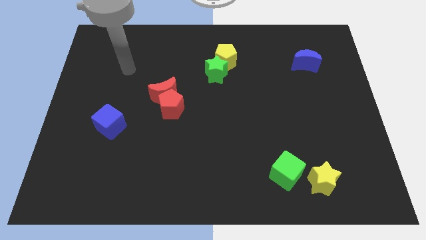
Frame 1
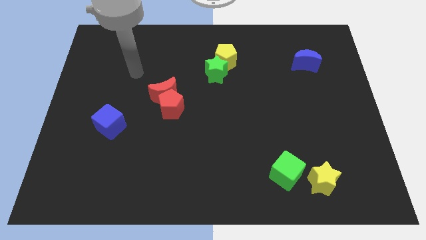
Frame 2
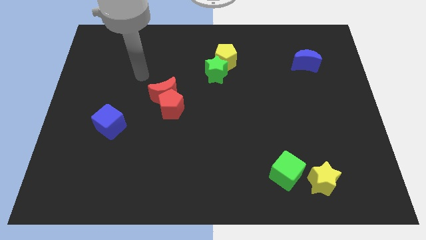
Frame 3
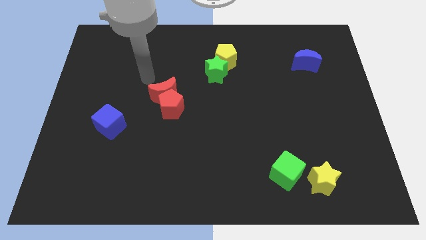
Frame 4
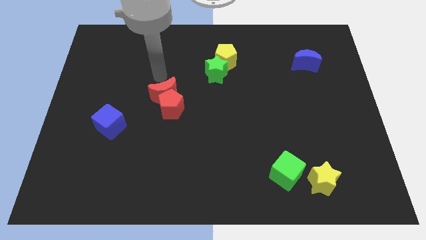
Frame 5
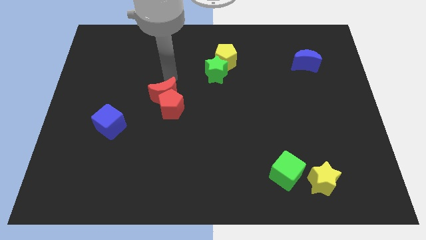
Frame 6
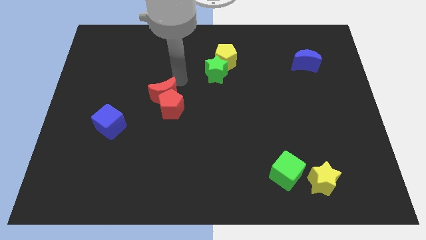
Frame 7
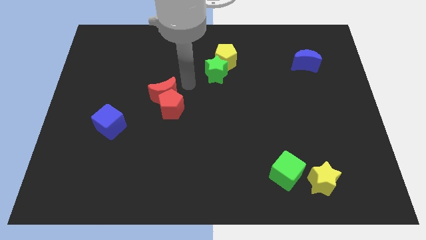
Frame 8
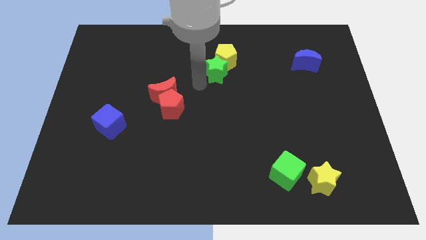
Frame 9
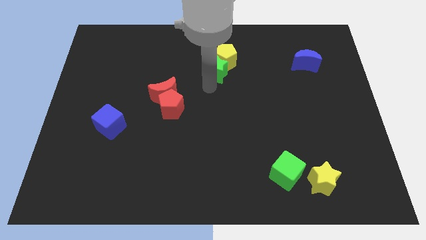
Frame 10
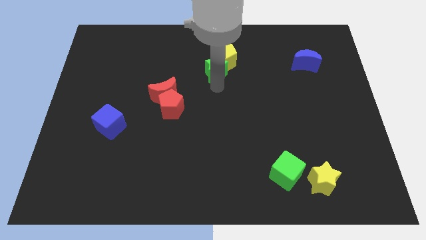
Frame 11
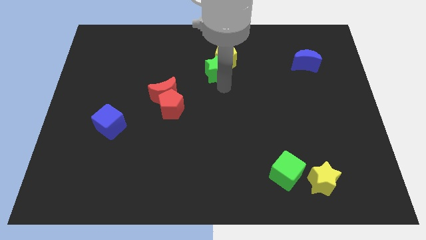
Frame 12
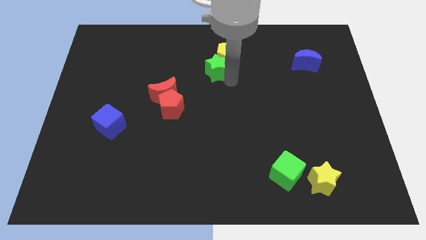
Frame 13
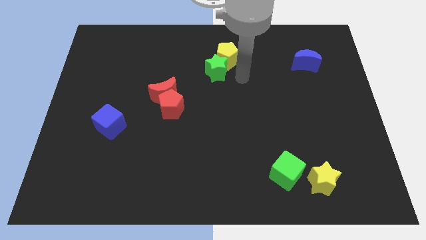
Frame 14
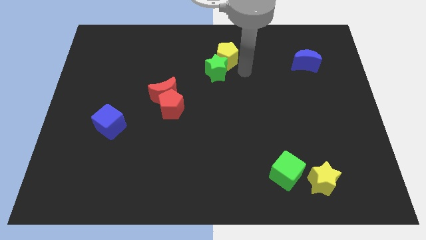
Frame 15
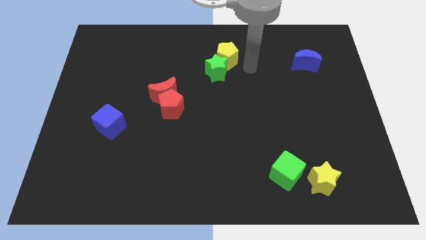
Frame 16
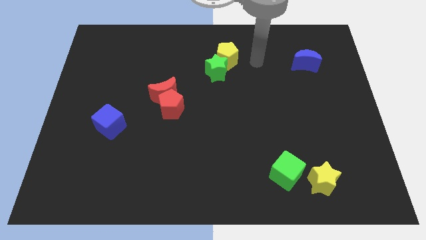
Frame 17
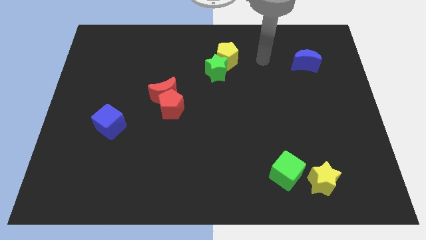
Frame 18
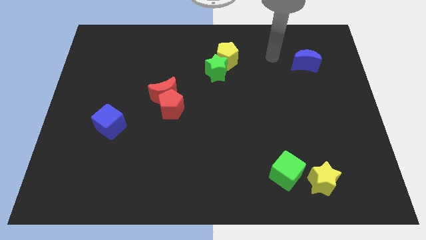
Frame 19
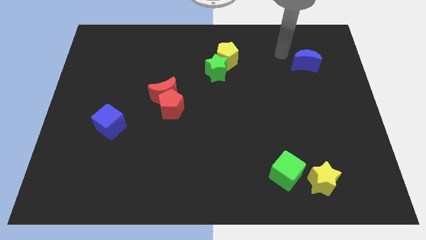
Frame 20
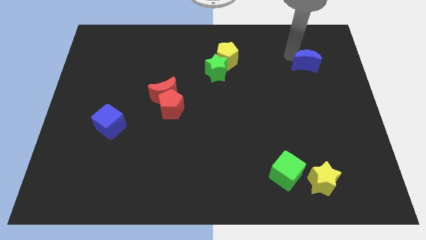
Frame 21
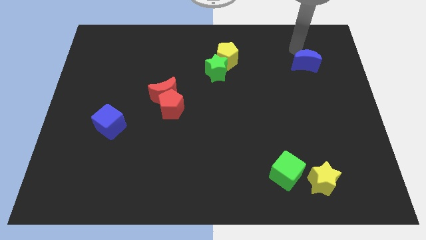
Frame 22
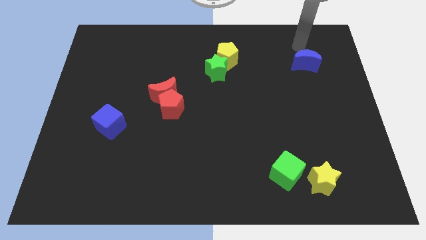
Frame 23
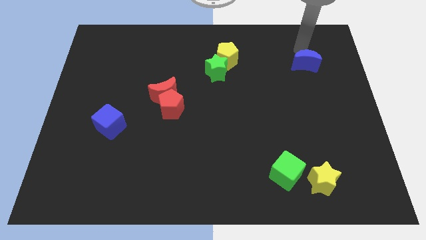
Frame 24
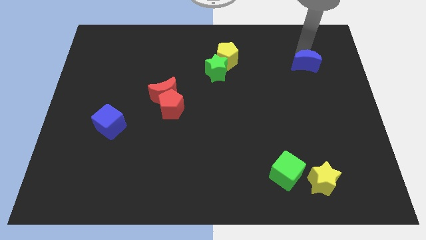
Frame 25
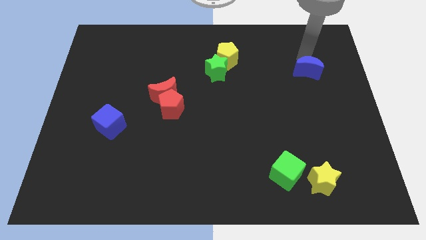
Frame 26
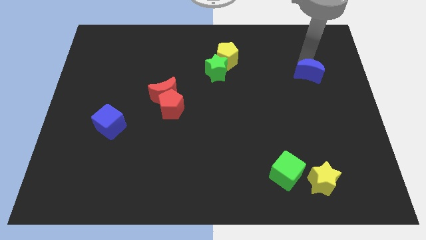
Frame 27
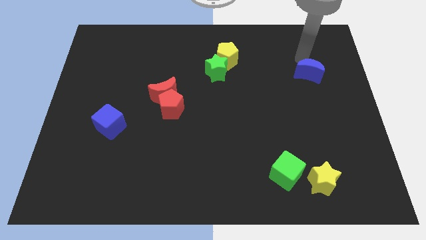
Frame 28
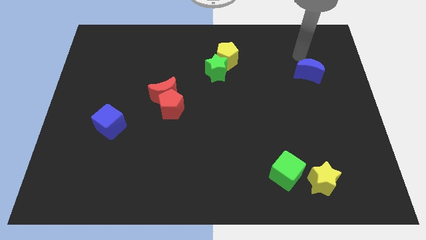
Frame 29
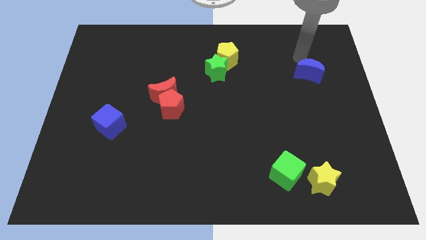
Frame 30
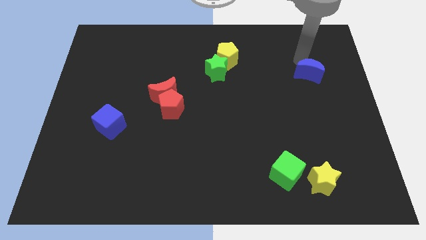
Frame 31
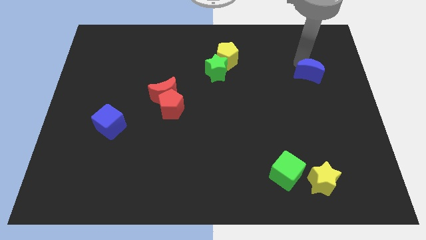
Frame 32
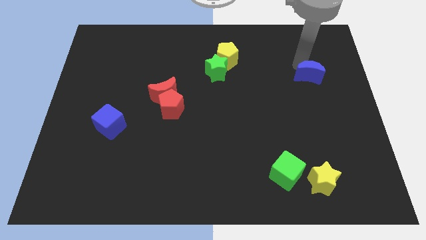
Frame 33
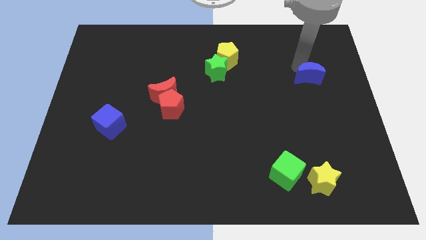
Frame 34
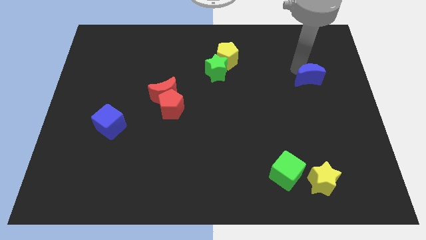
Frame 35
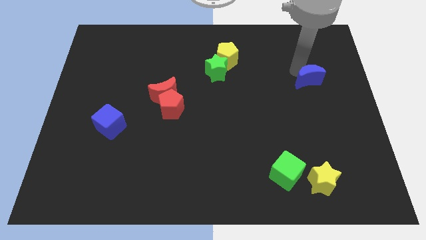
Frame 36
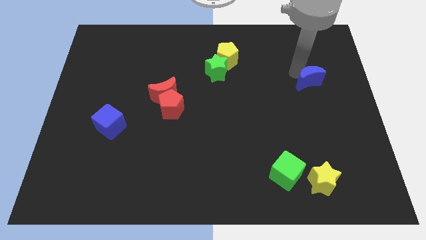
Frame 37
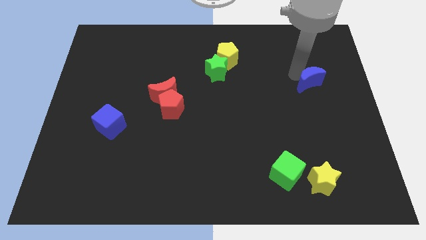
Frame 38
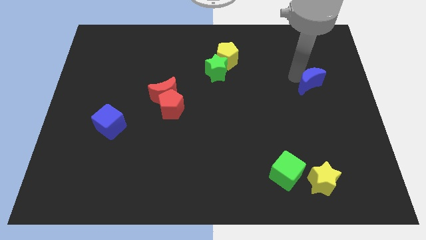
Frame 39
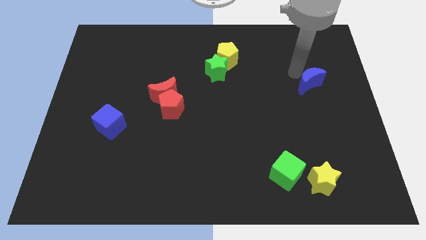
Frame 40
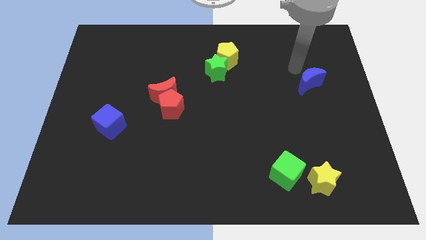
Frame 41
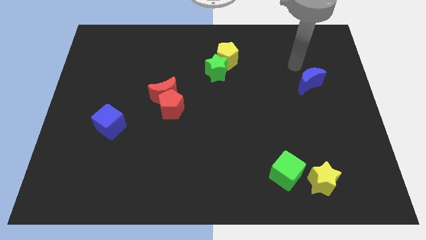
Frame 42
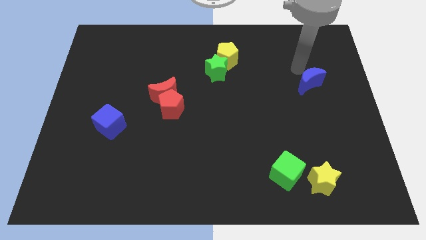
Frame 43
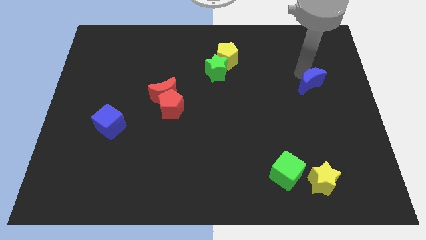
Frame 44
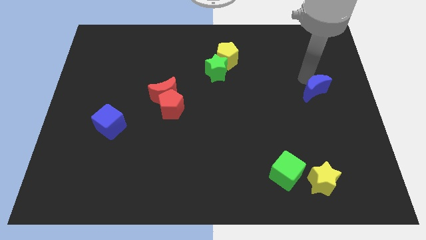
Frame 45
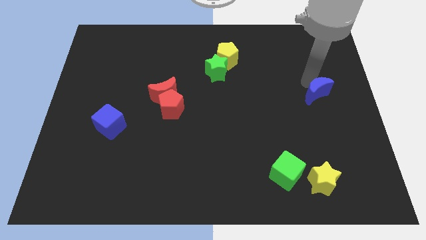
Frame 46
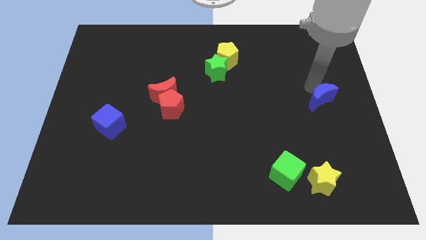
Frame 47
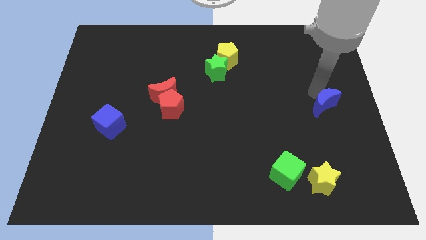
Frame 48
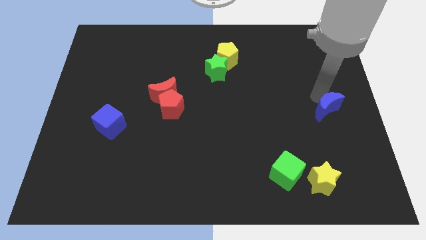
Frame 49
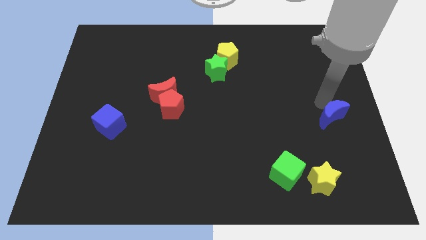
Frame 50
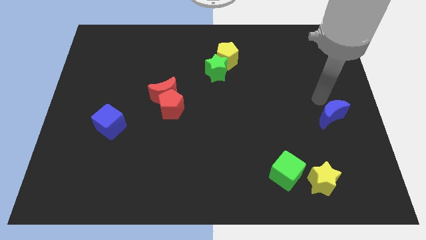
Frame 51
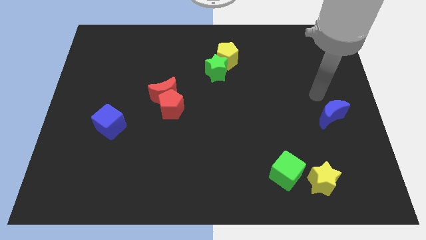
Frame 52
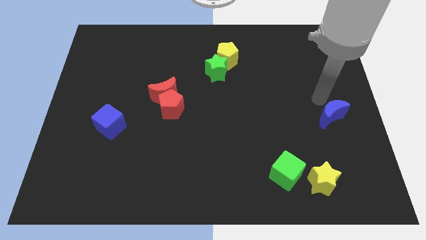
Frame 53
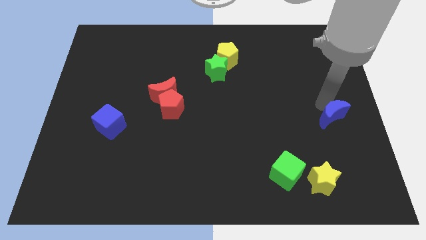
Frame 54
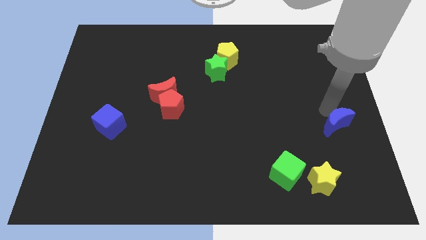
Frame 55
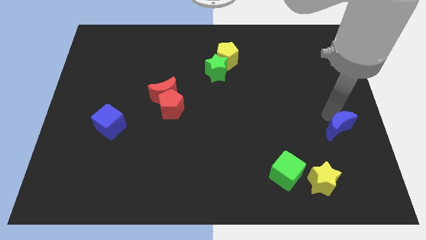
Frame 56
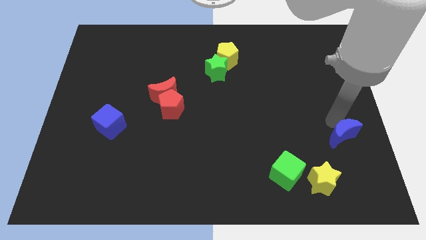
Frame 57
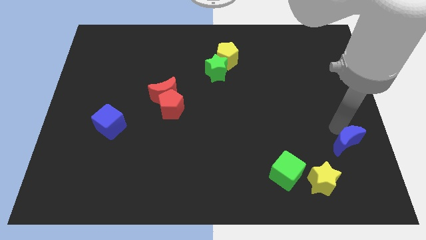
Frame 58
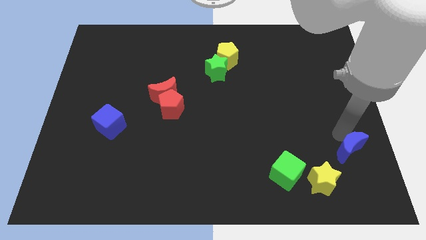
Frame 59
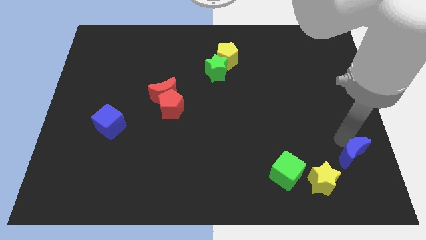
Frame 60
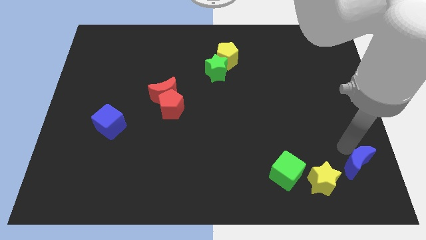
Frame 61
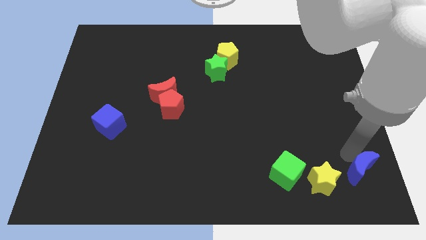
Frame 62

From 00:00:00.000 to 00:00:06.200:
push the blue moon to the bottom right corner

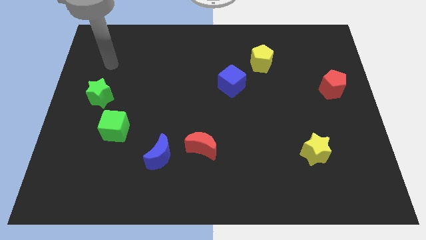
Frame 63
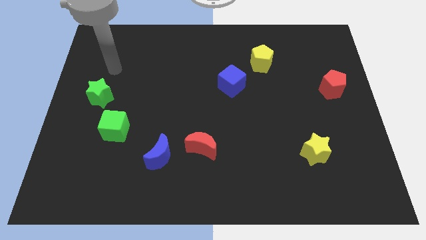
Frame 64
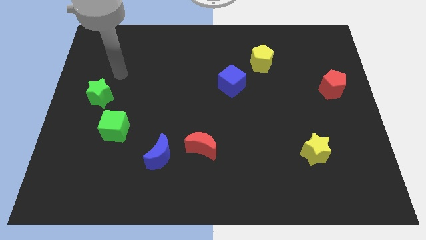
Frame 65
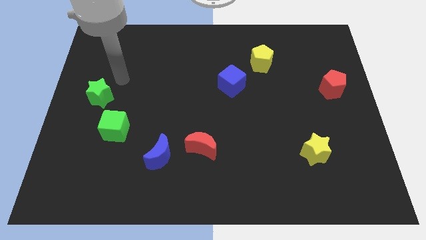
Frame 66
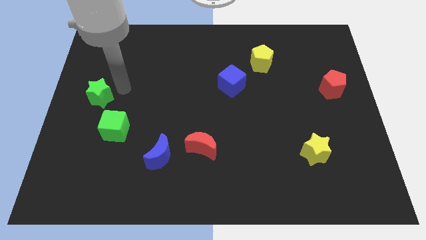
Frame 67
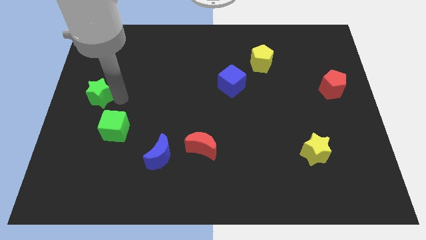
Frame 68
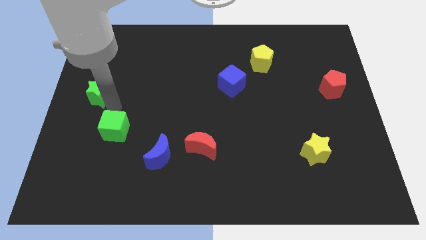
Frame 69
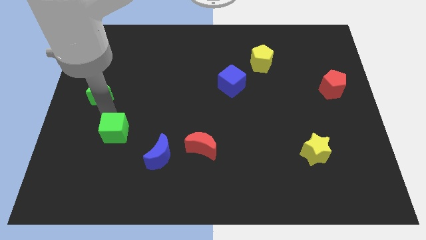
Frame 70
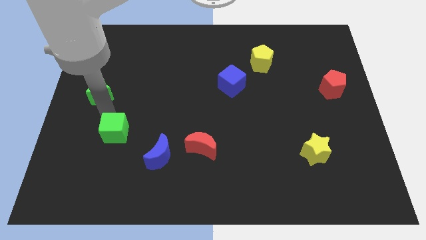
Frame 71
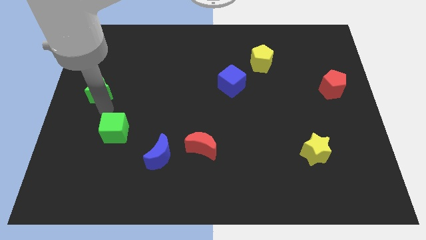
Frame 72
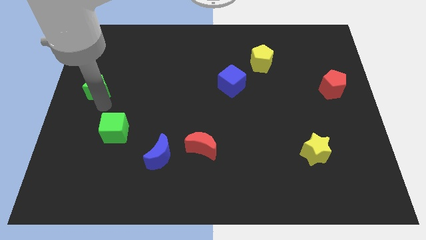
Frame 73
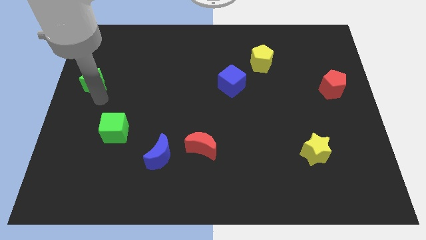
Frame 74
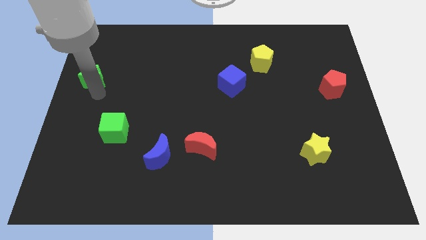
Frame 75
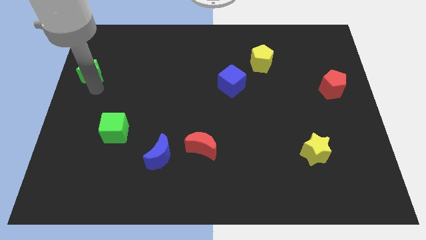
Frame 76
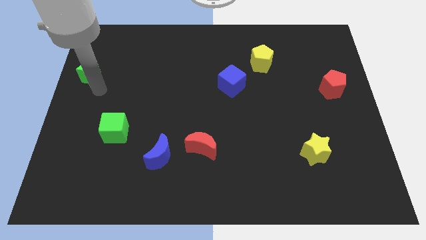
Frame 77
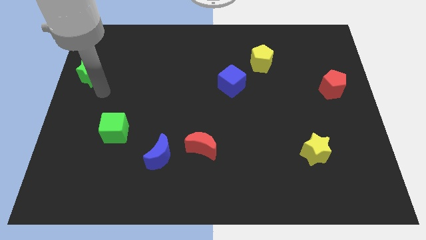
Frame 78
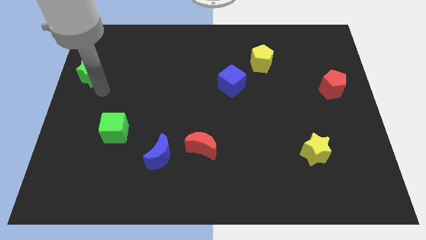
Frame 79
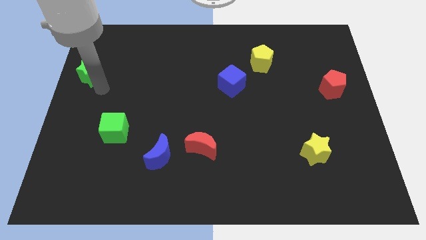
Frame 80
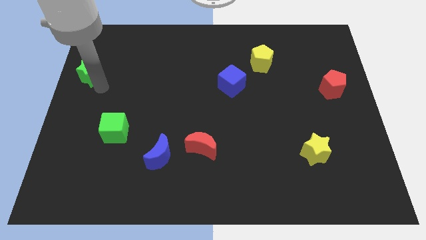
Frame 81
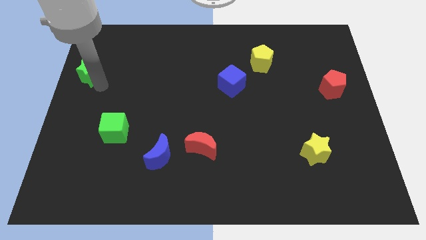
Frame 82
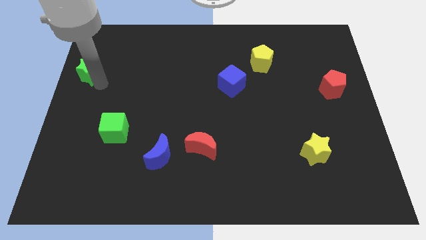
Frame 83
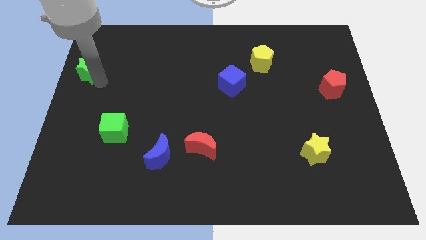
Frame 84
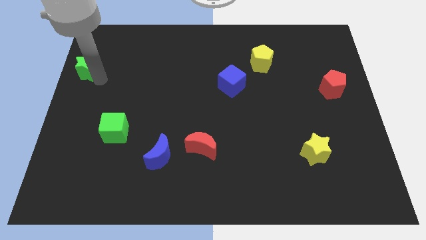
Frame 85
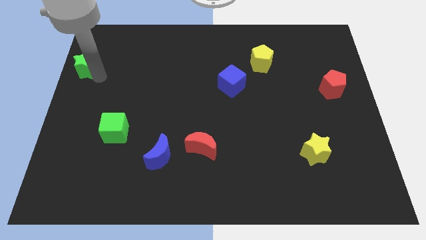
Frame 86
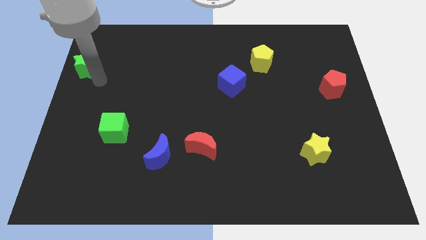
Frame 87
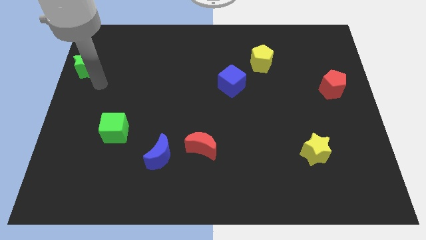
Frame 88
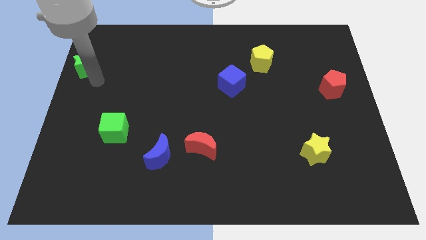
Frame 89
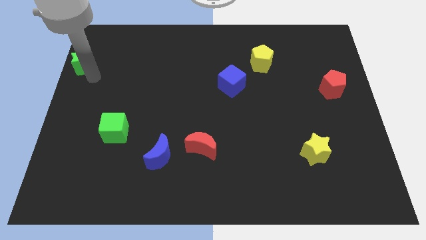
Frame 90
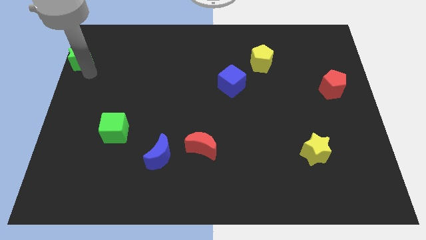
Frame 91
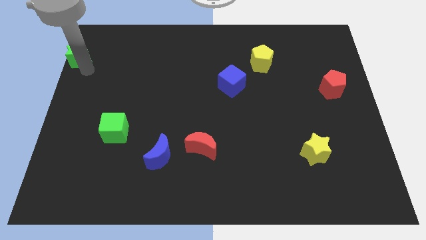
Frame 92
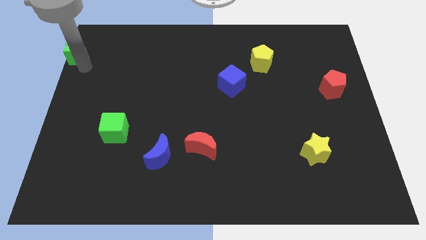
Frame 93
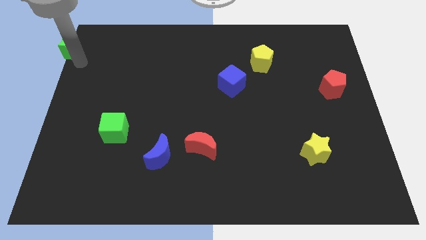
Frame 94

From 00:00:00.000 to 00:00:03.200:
move the green star to the top left corner
